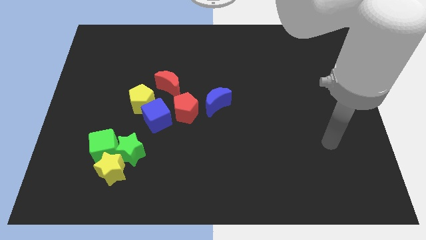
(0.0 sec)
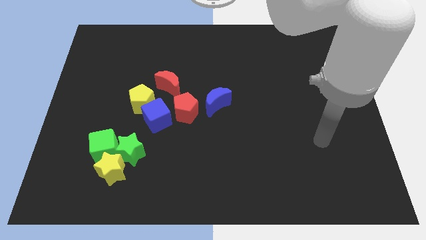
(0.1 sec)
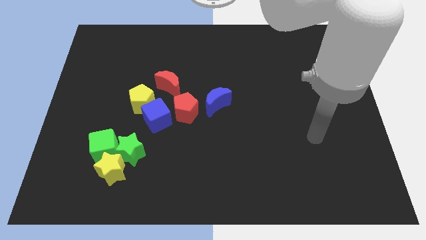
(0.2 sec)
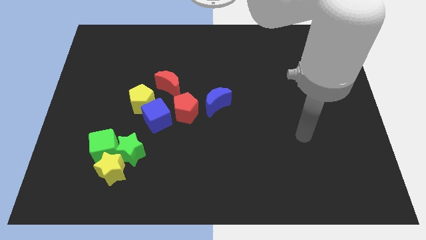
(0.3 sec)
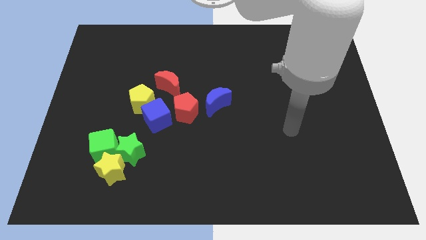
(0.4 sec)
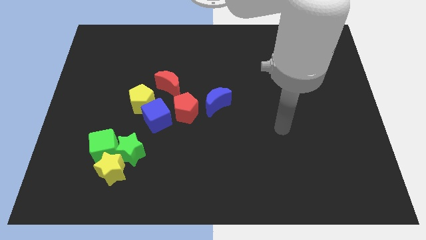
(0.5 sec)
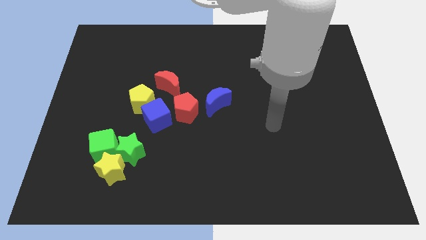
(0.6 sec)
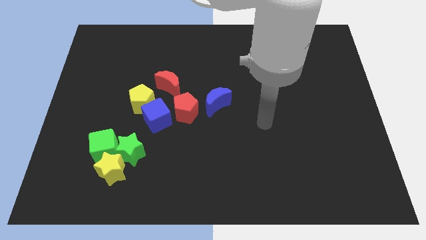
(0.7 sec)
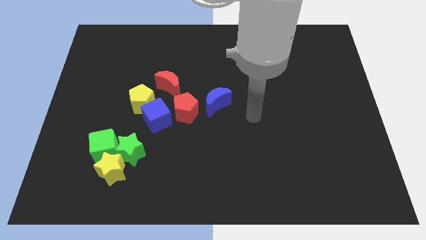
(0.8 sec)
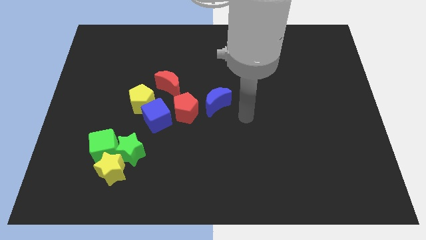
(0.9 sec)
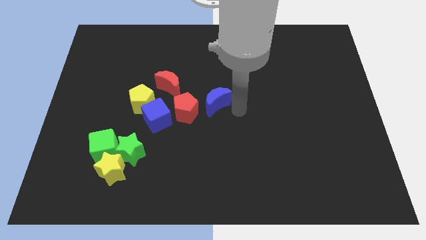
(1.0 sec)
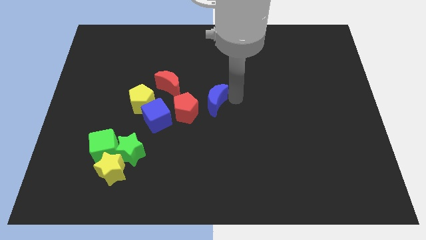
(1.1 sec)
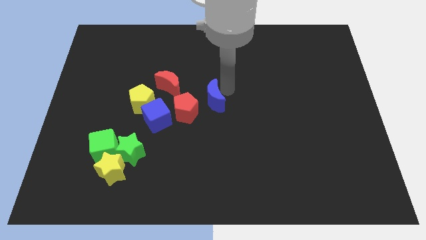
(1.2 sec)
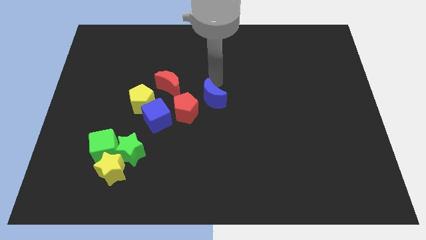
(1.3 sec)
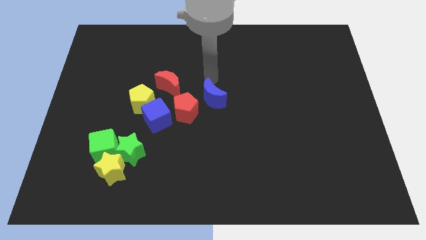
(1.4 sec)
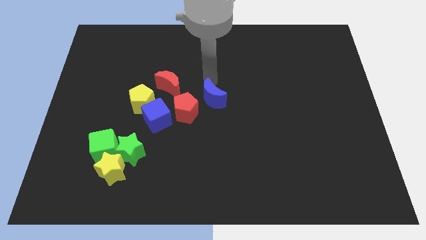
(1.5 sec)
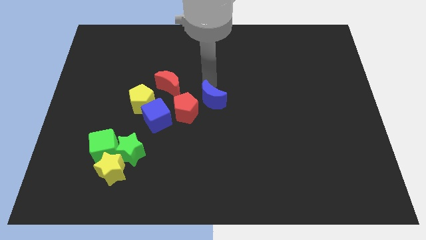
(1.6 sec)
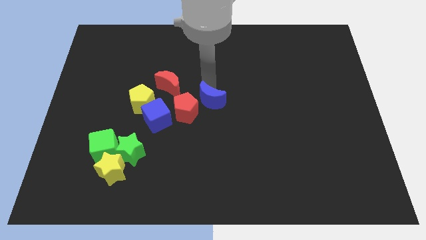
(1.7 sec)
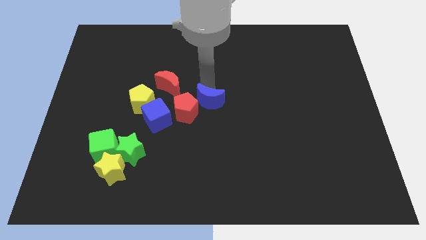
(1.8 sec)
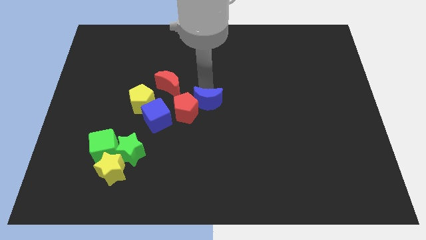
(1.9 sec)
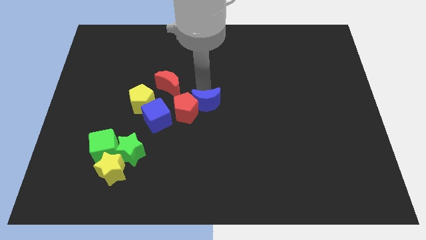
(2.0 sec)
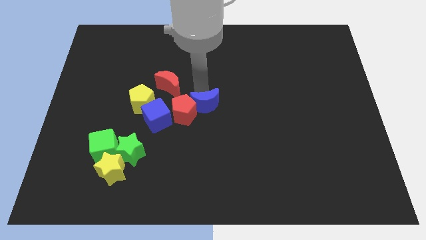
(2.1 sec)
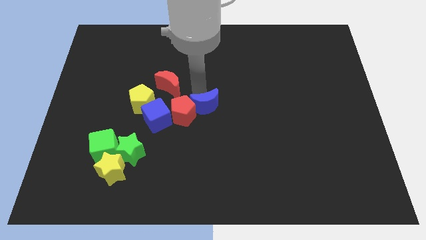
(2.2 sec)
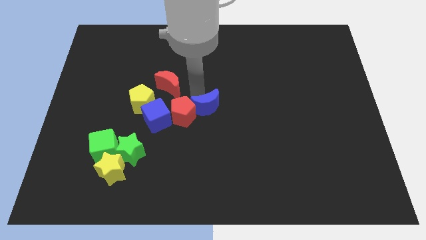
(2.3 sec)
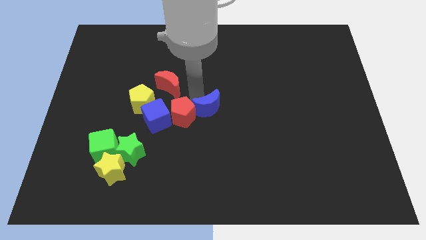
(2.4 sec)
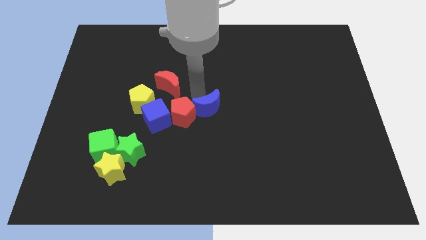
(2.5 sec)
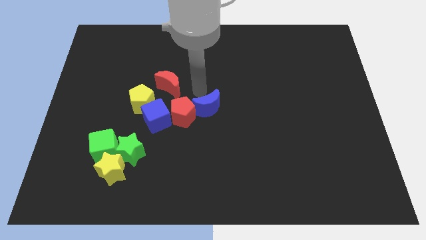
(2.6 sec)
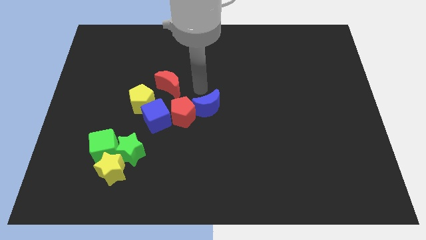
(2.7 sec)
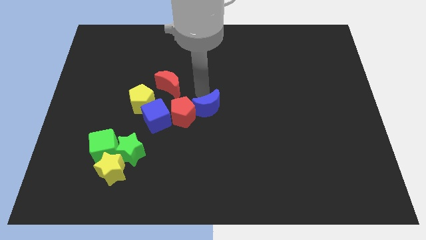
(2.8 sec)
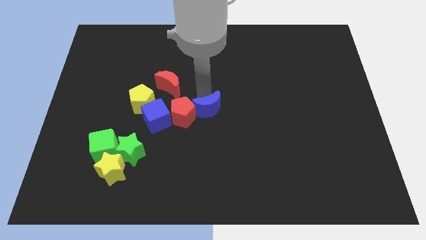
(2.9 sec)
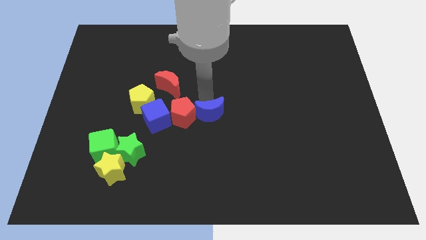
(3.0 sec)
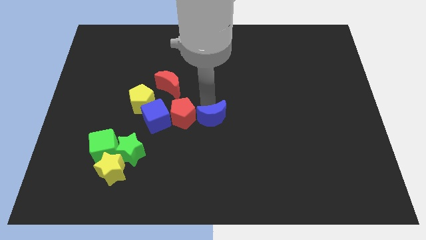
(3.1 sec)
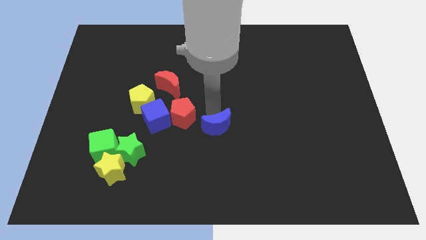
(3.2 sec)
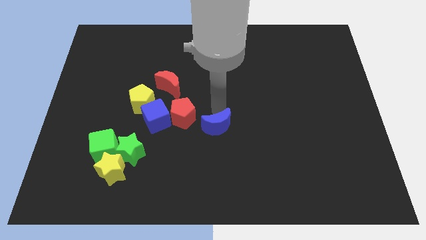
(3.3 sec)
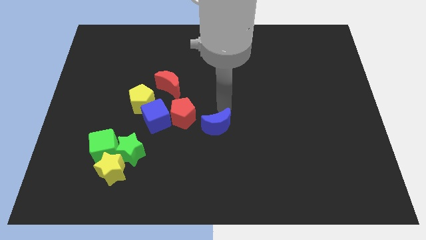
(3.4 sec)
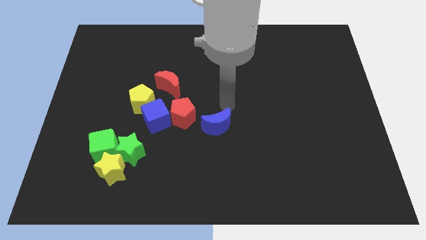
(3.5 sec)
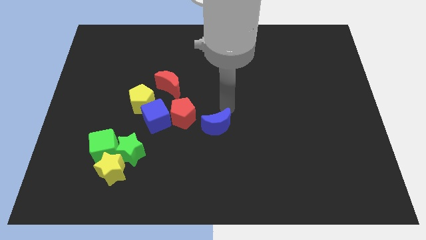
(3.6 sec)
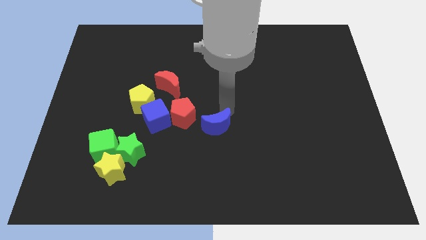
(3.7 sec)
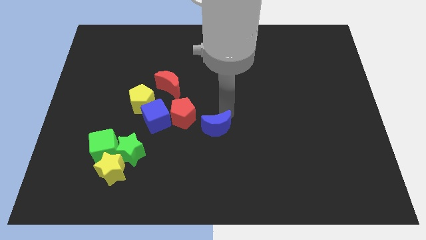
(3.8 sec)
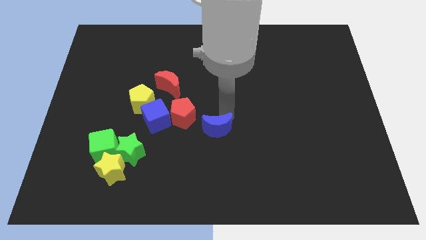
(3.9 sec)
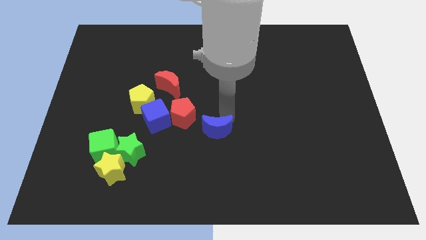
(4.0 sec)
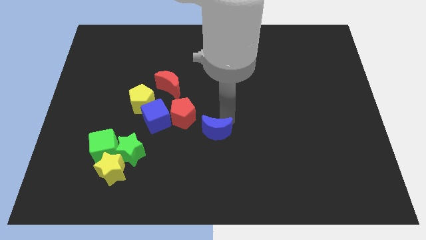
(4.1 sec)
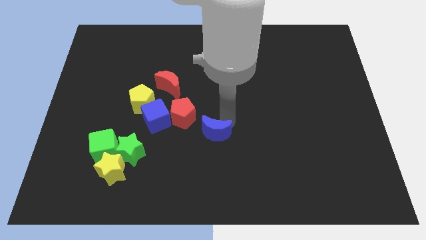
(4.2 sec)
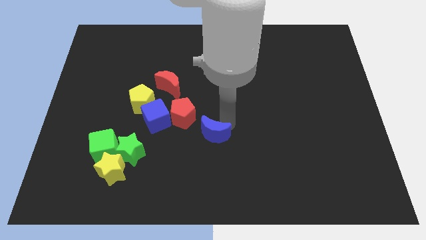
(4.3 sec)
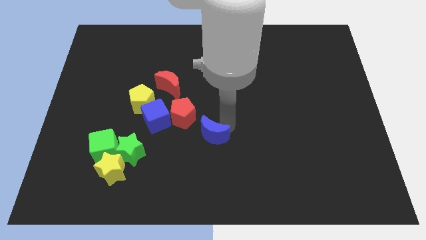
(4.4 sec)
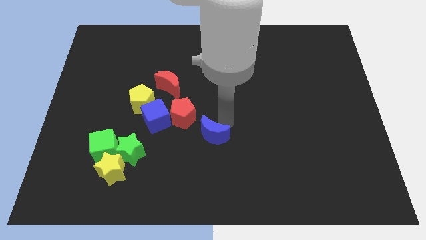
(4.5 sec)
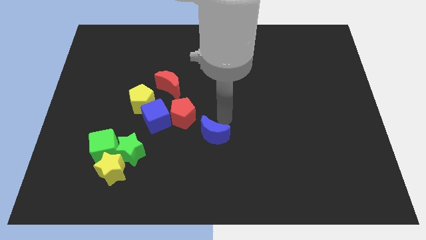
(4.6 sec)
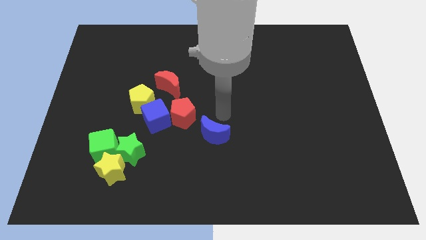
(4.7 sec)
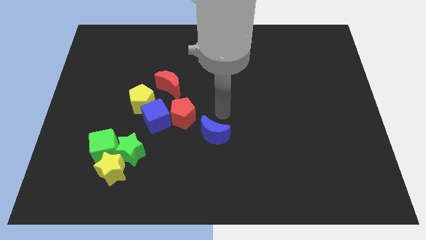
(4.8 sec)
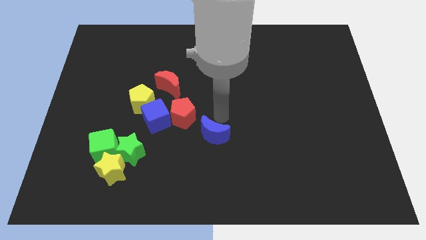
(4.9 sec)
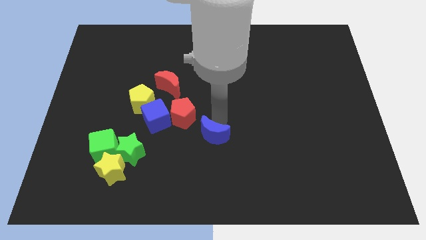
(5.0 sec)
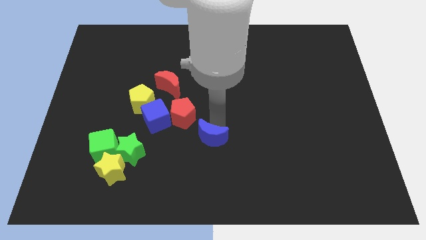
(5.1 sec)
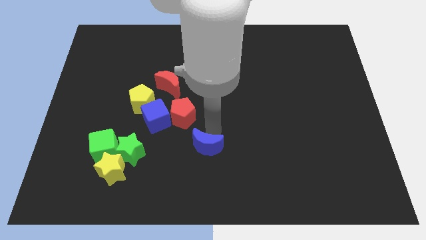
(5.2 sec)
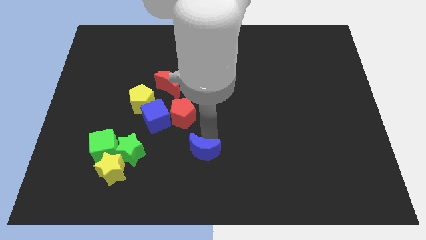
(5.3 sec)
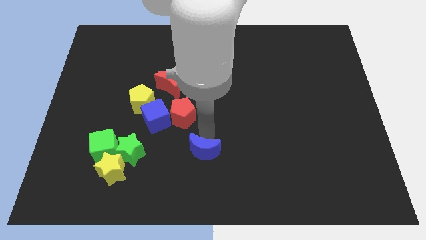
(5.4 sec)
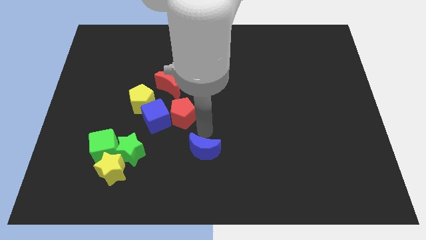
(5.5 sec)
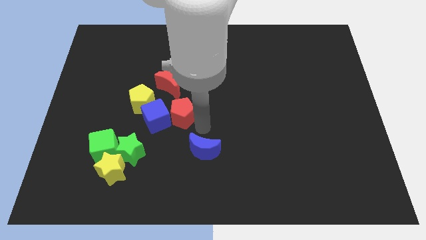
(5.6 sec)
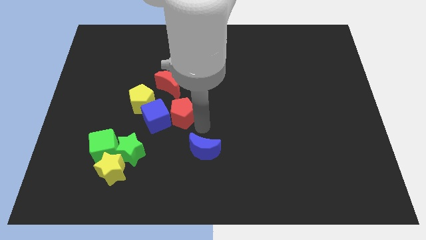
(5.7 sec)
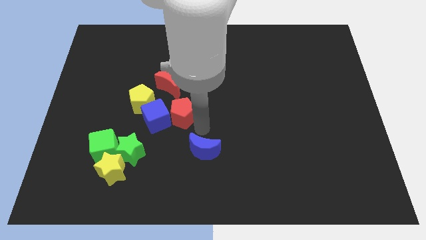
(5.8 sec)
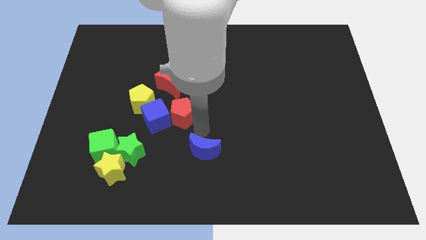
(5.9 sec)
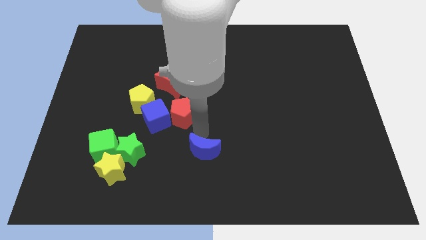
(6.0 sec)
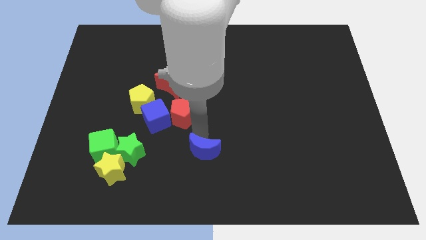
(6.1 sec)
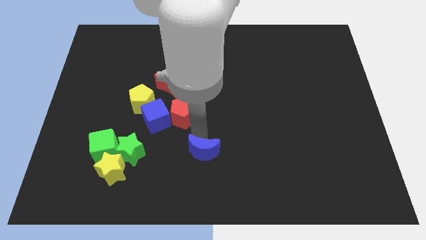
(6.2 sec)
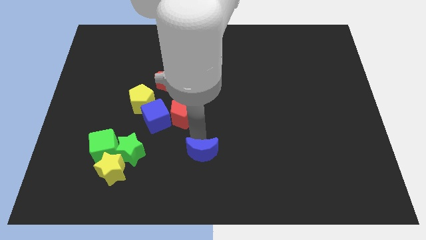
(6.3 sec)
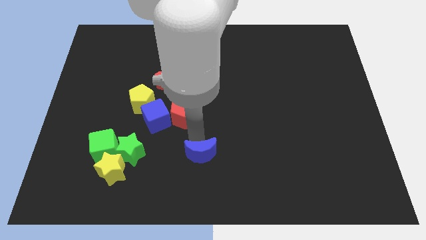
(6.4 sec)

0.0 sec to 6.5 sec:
put the blue moon to the bottom side
